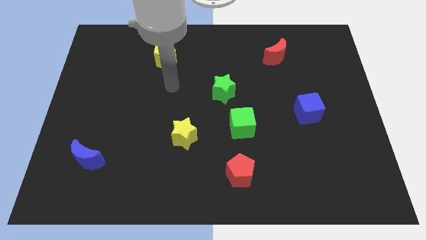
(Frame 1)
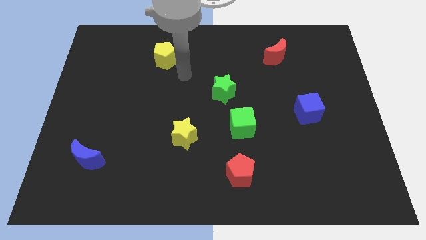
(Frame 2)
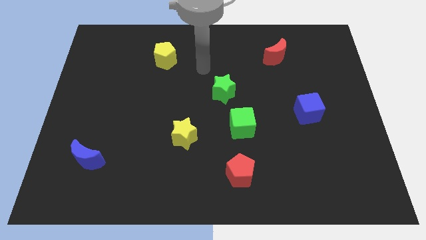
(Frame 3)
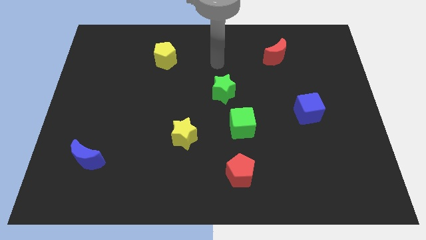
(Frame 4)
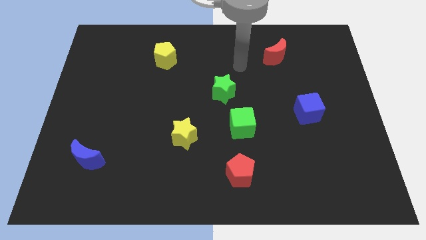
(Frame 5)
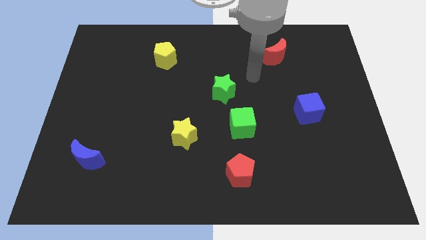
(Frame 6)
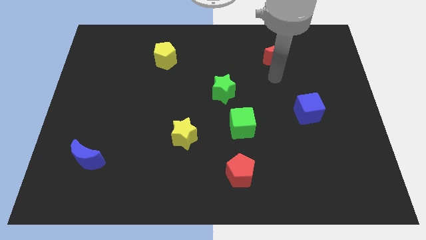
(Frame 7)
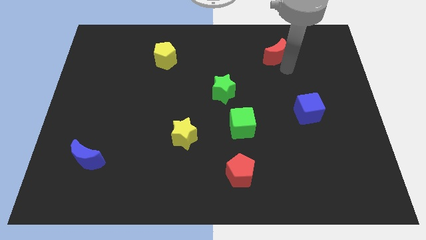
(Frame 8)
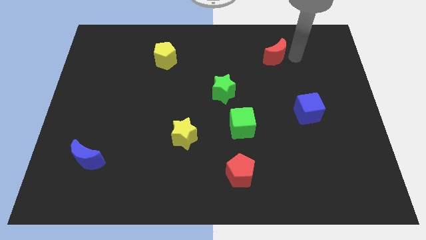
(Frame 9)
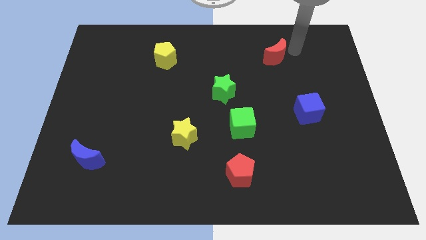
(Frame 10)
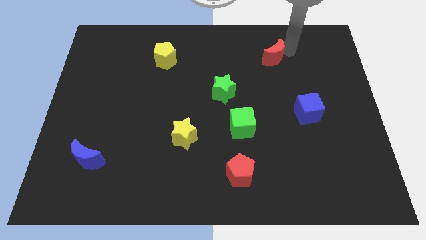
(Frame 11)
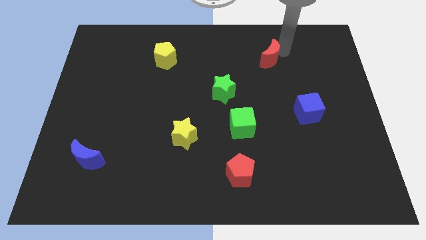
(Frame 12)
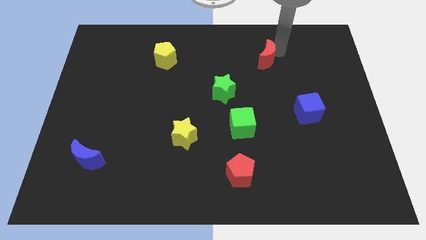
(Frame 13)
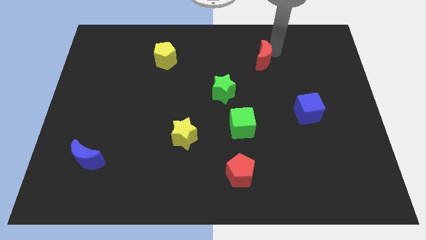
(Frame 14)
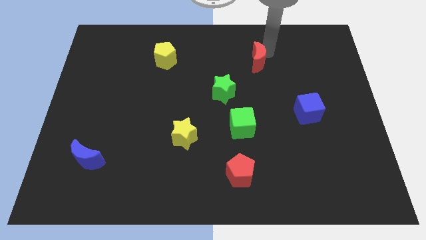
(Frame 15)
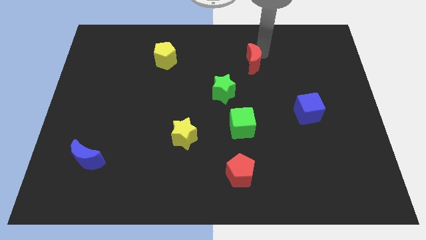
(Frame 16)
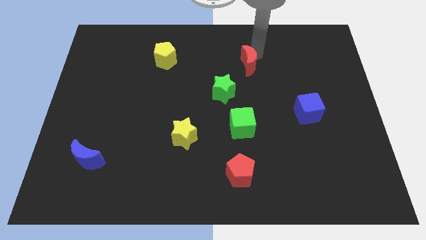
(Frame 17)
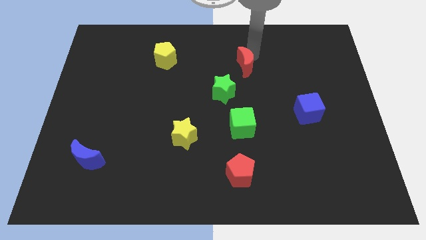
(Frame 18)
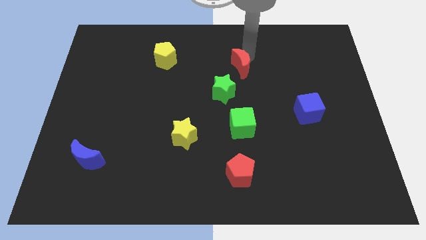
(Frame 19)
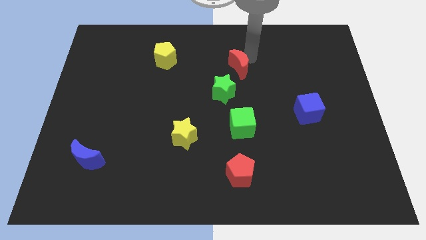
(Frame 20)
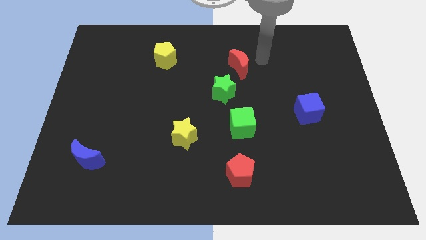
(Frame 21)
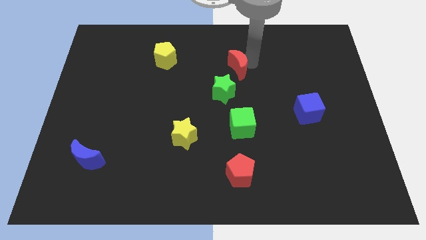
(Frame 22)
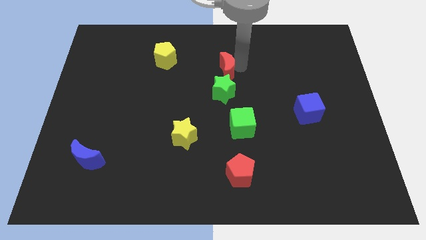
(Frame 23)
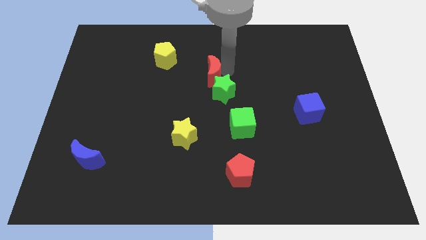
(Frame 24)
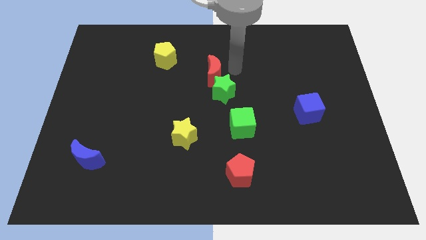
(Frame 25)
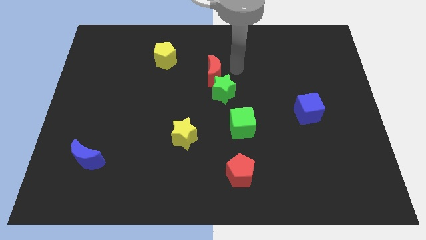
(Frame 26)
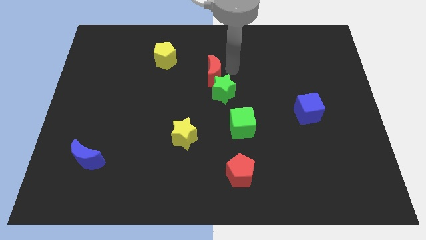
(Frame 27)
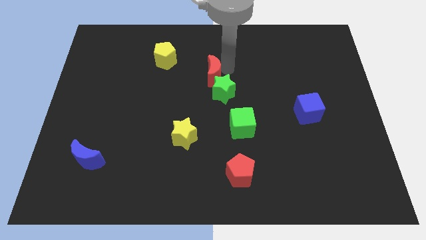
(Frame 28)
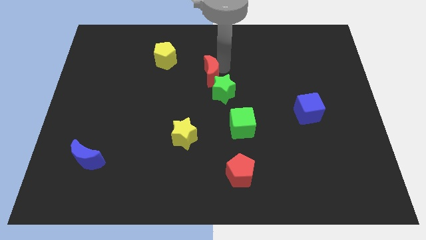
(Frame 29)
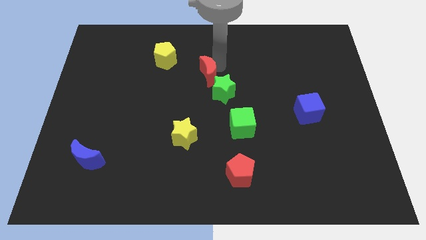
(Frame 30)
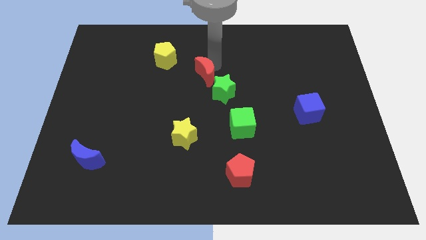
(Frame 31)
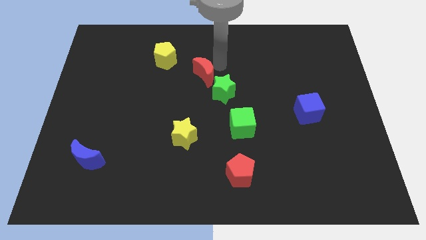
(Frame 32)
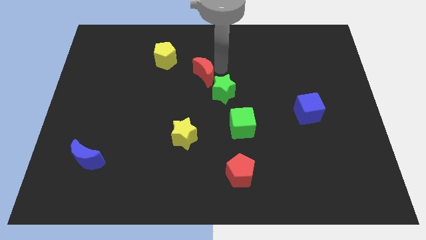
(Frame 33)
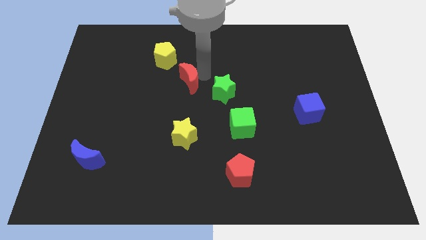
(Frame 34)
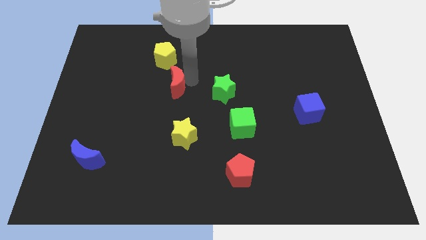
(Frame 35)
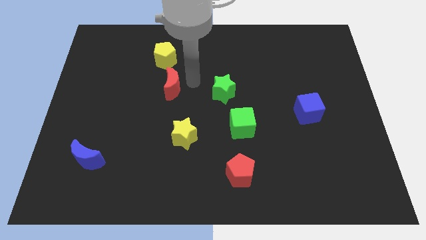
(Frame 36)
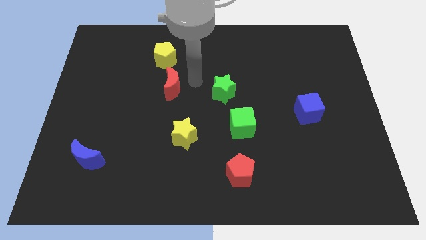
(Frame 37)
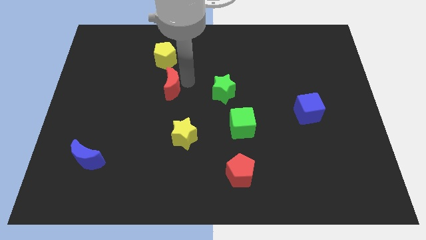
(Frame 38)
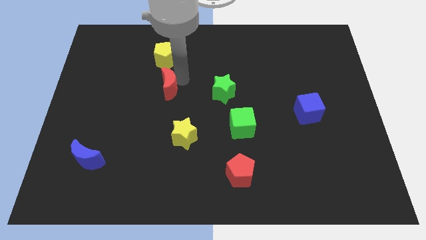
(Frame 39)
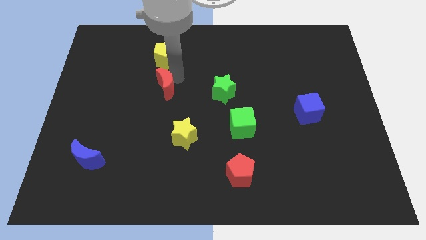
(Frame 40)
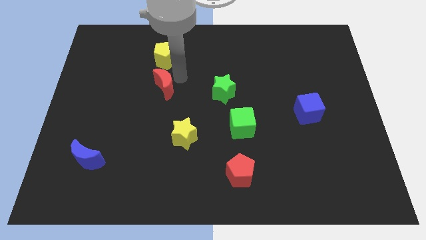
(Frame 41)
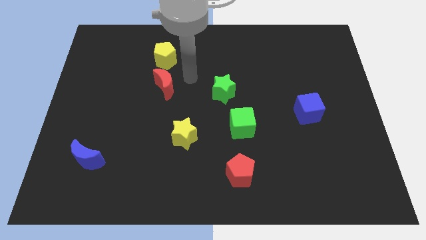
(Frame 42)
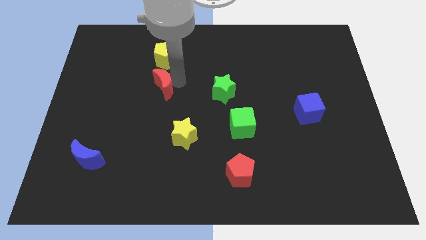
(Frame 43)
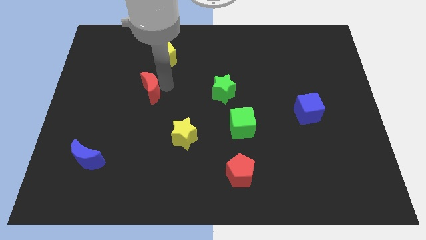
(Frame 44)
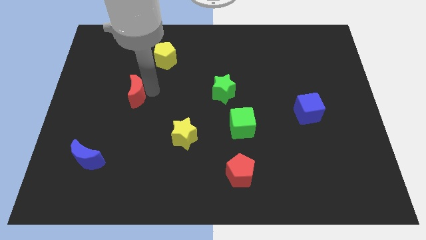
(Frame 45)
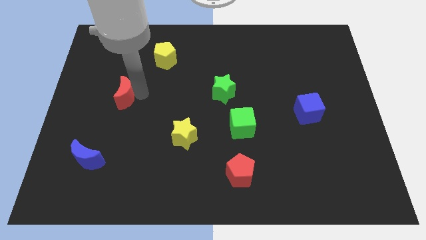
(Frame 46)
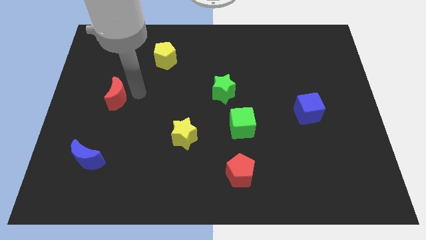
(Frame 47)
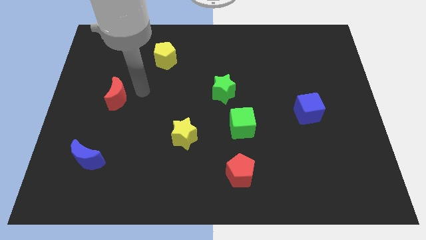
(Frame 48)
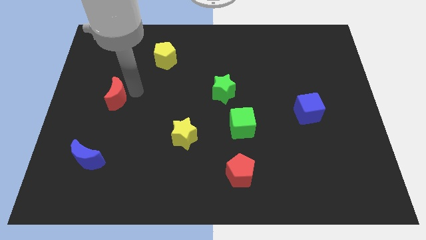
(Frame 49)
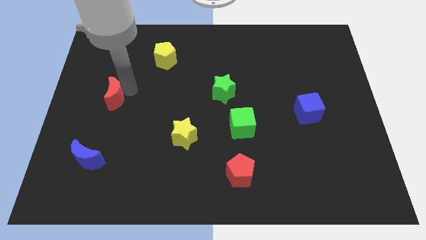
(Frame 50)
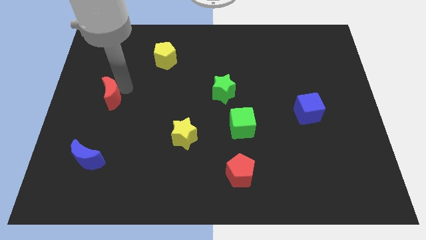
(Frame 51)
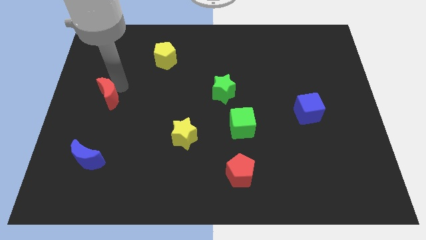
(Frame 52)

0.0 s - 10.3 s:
push the red moon to the left side of the board

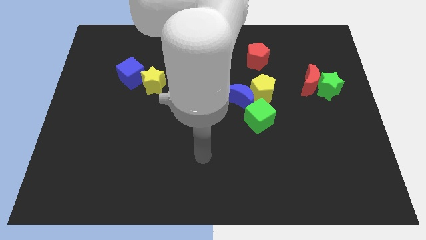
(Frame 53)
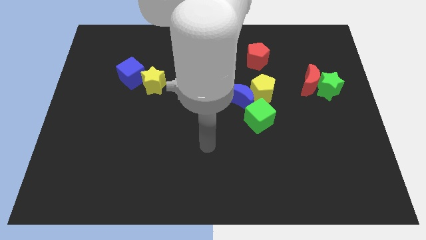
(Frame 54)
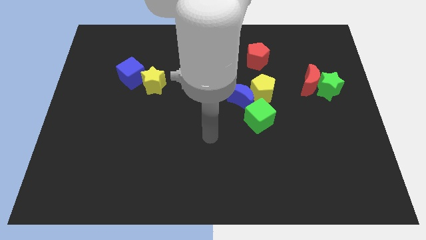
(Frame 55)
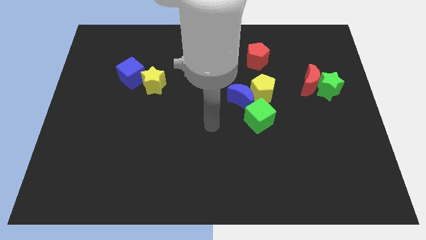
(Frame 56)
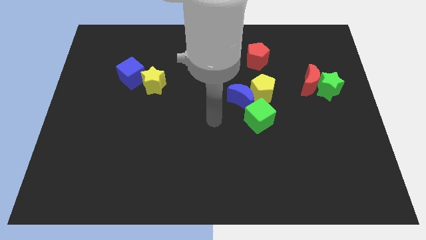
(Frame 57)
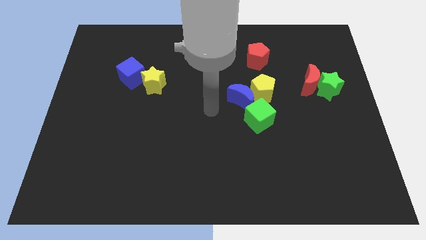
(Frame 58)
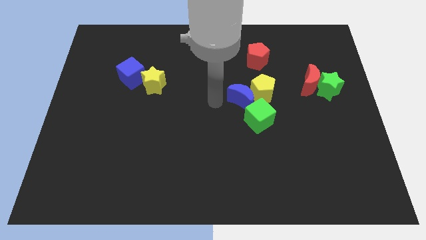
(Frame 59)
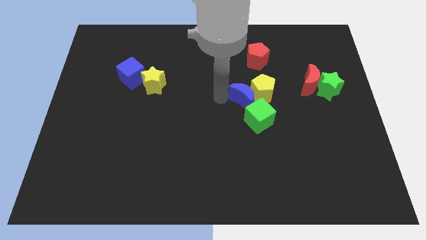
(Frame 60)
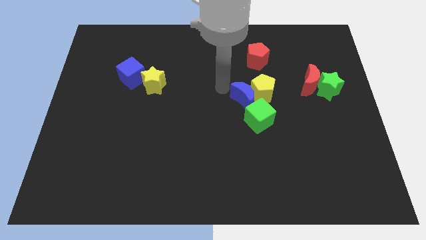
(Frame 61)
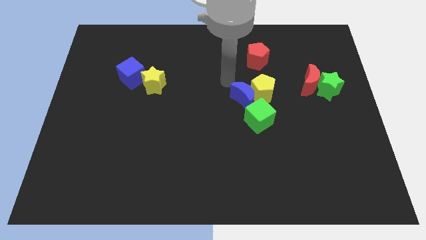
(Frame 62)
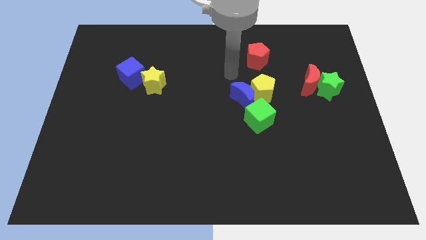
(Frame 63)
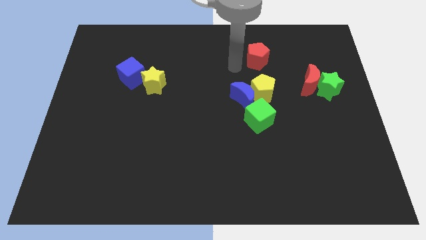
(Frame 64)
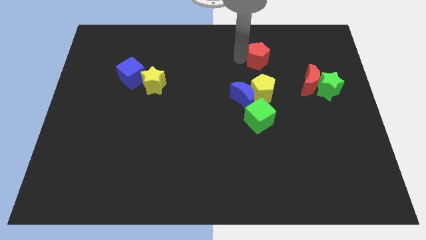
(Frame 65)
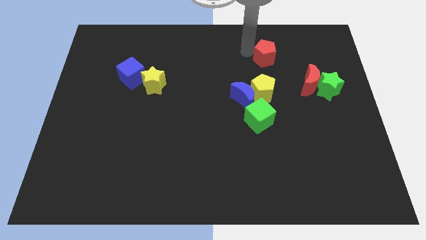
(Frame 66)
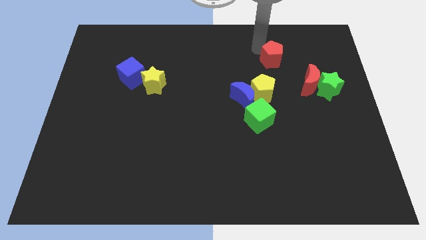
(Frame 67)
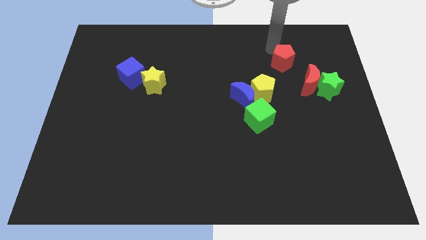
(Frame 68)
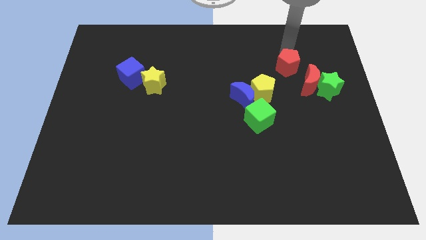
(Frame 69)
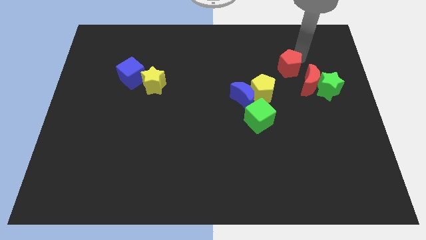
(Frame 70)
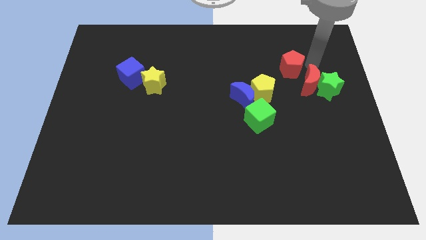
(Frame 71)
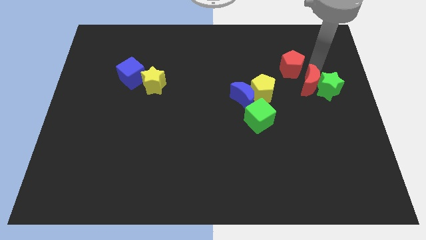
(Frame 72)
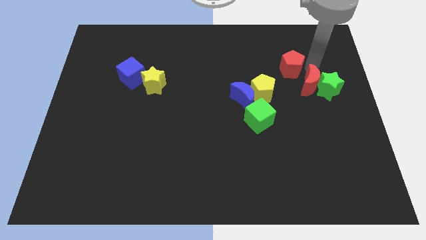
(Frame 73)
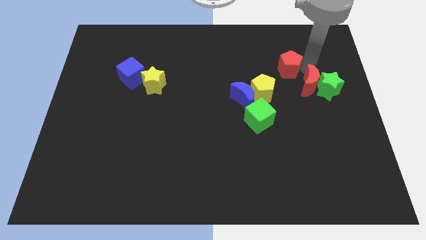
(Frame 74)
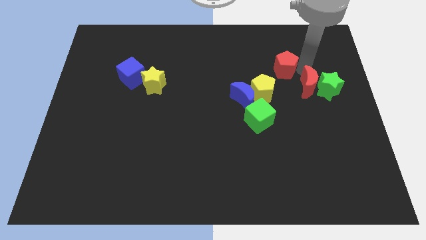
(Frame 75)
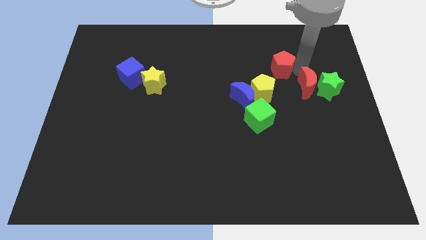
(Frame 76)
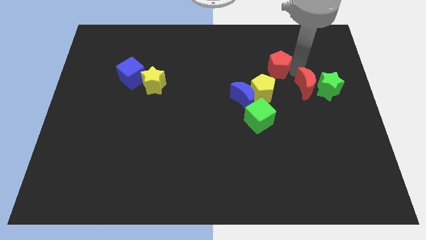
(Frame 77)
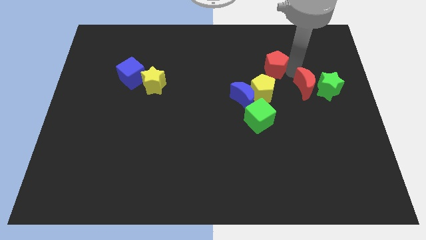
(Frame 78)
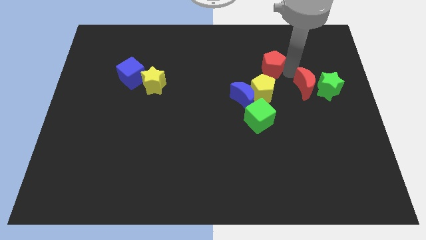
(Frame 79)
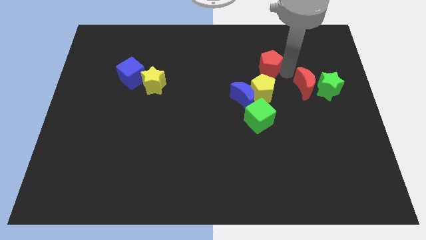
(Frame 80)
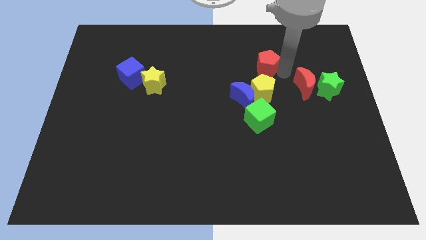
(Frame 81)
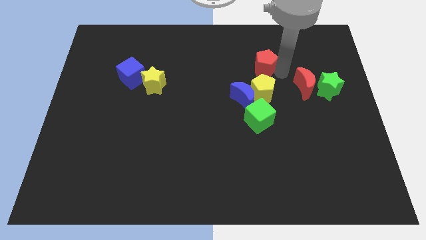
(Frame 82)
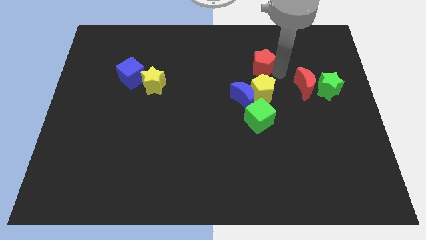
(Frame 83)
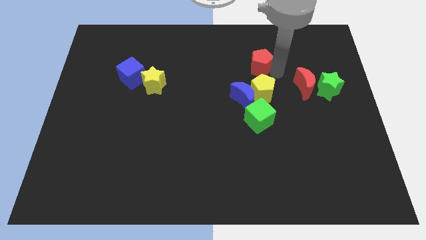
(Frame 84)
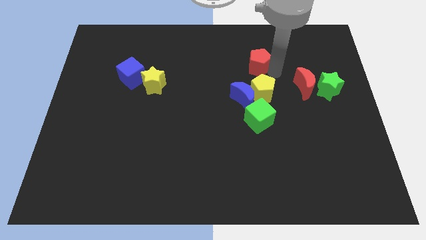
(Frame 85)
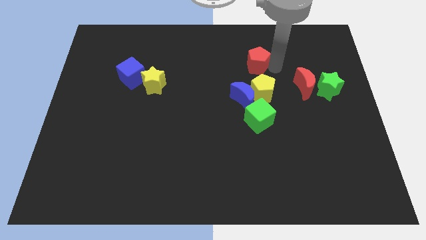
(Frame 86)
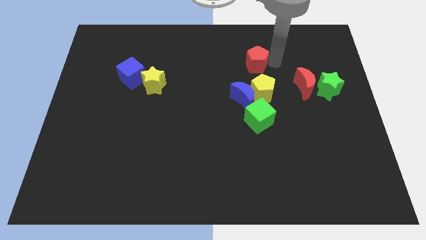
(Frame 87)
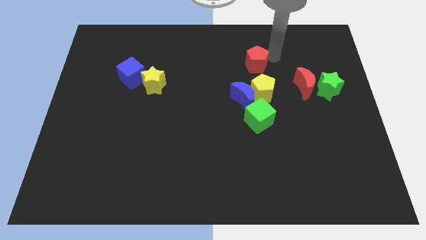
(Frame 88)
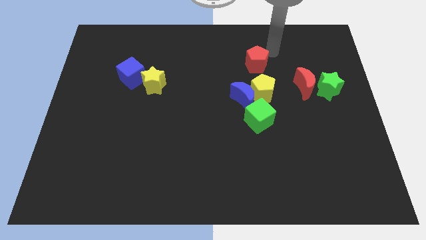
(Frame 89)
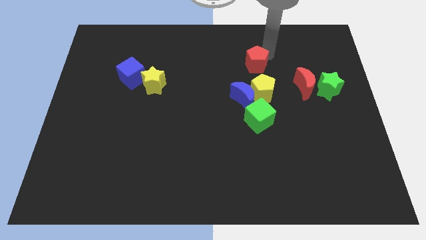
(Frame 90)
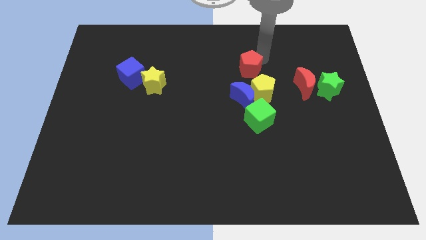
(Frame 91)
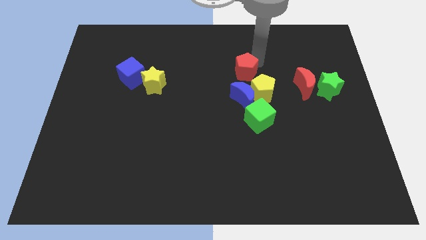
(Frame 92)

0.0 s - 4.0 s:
put the red pentagon to the middle
